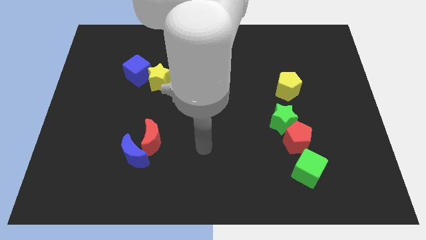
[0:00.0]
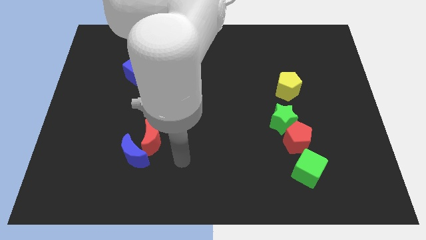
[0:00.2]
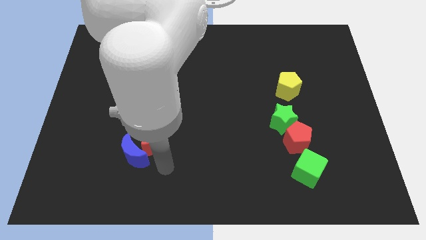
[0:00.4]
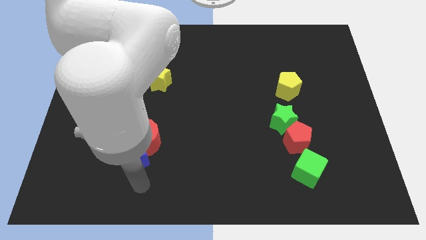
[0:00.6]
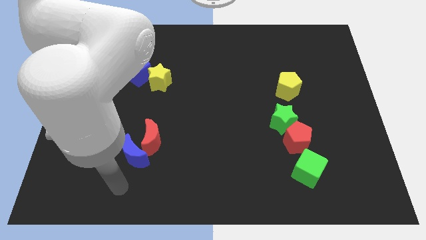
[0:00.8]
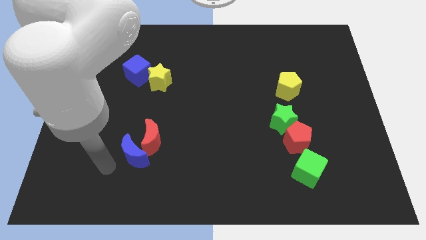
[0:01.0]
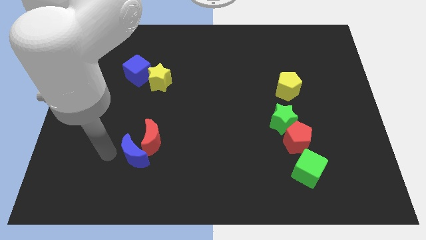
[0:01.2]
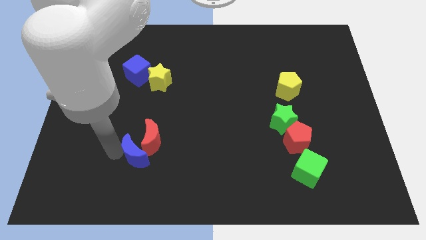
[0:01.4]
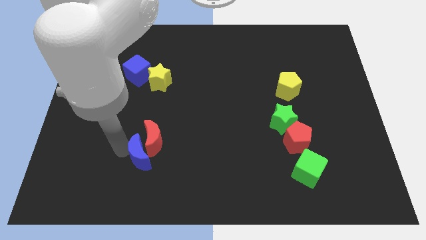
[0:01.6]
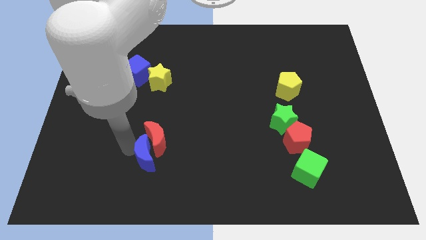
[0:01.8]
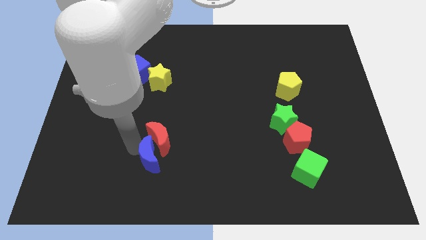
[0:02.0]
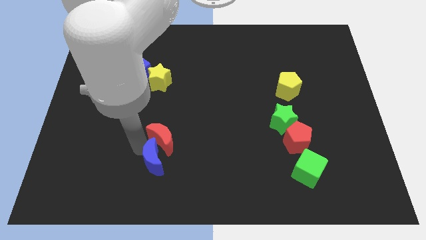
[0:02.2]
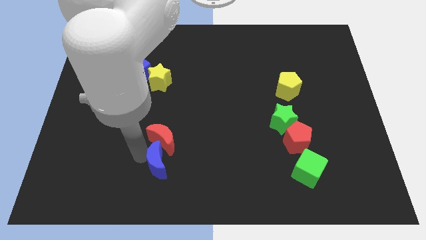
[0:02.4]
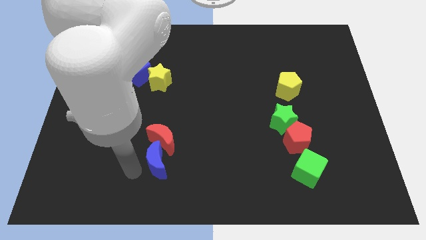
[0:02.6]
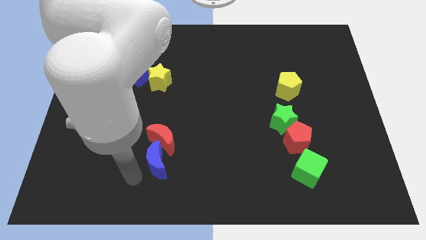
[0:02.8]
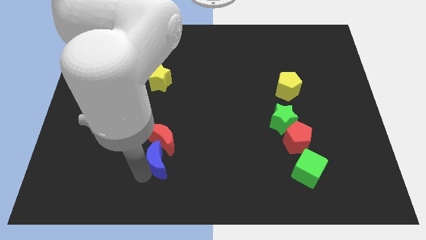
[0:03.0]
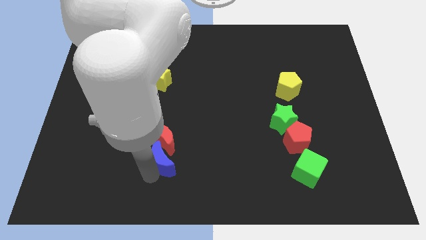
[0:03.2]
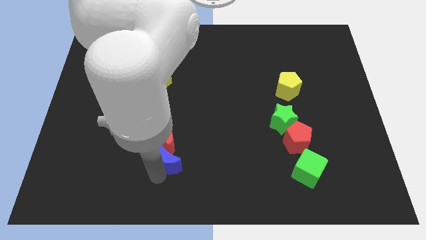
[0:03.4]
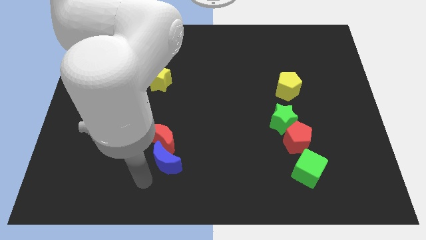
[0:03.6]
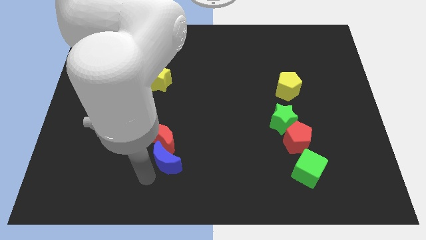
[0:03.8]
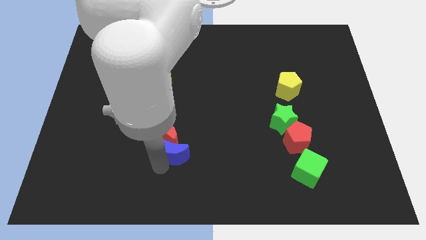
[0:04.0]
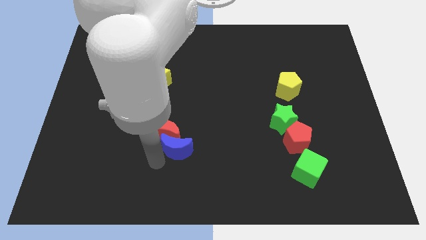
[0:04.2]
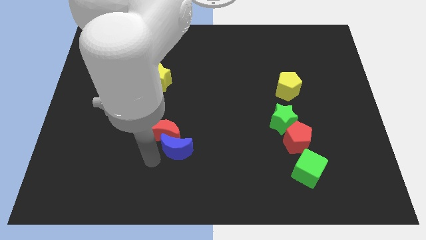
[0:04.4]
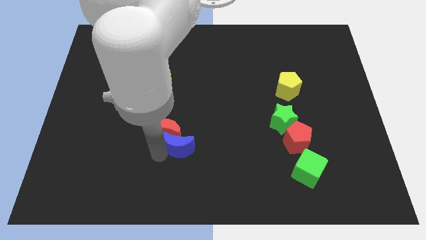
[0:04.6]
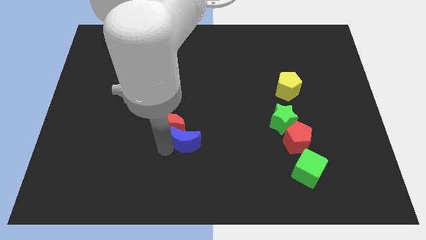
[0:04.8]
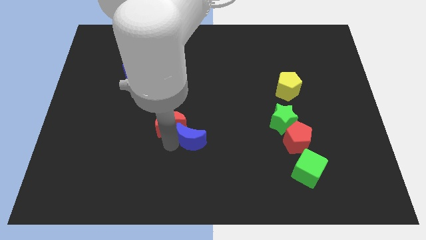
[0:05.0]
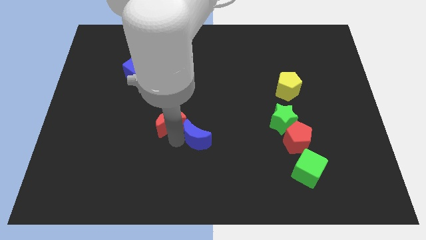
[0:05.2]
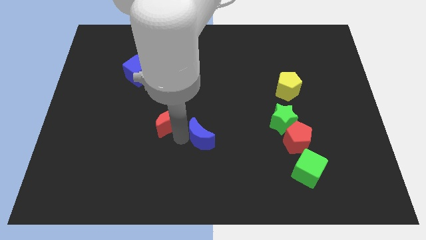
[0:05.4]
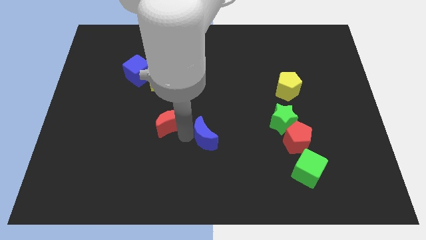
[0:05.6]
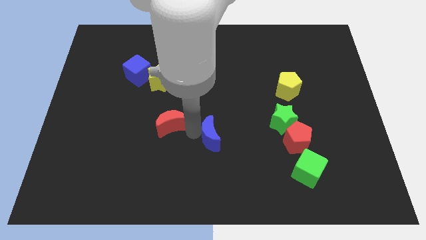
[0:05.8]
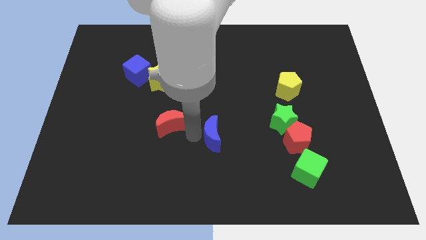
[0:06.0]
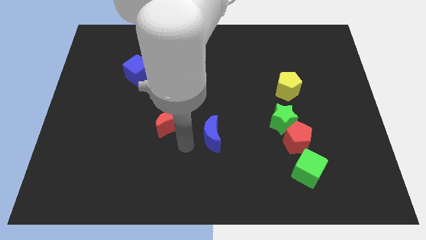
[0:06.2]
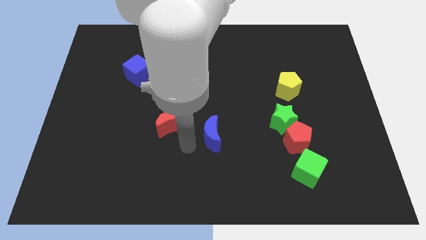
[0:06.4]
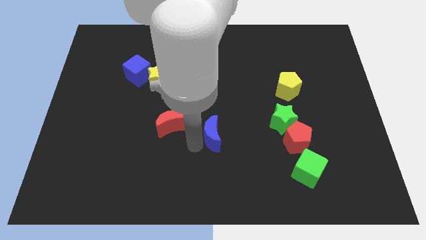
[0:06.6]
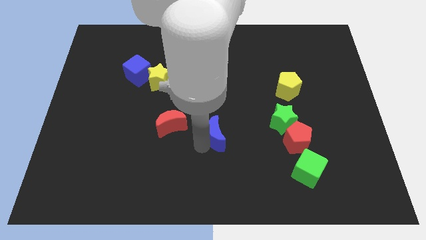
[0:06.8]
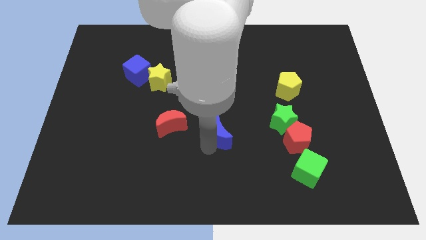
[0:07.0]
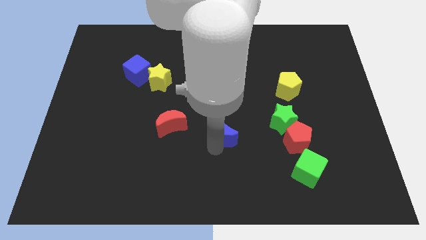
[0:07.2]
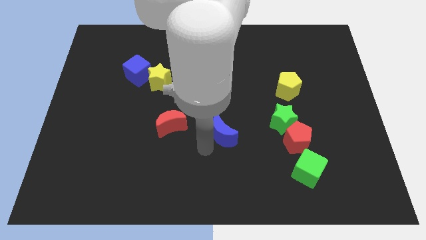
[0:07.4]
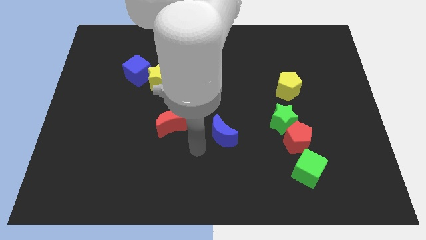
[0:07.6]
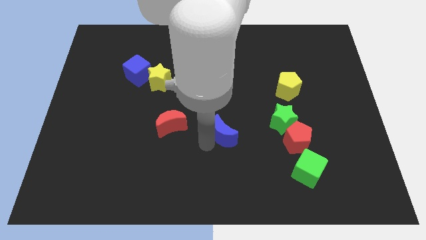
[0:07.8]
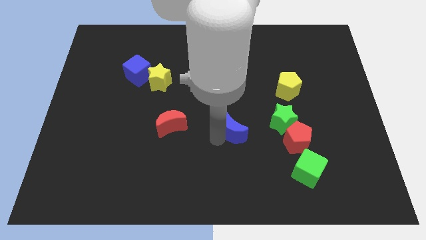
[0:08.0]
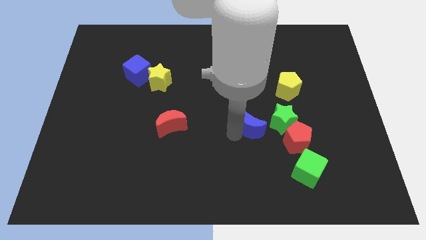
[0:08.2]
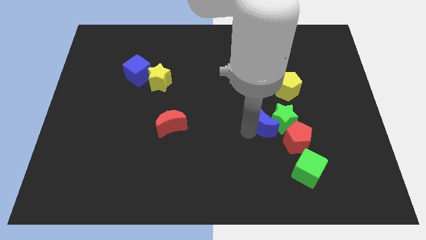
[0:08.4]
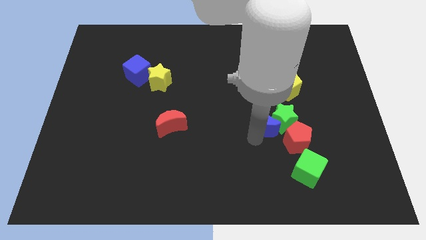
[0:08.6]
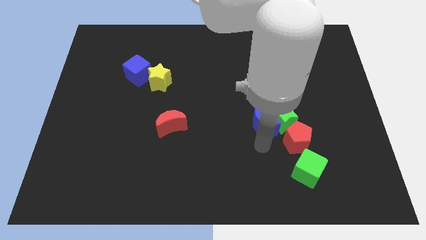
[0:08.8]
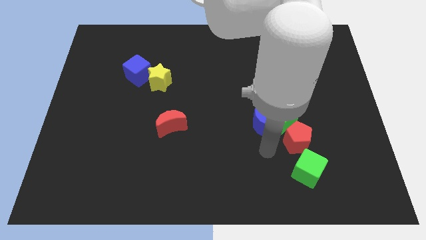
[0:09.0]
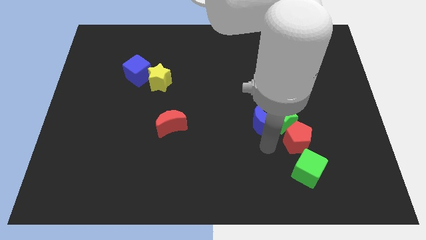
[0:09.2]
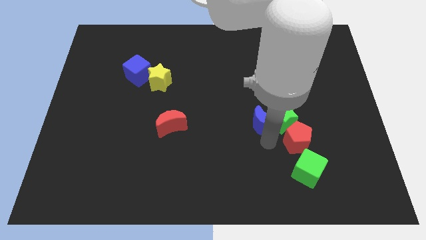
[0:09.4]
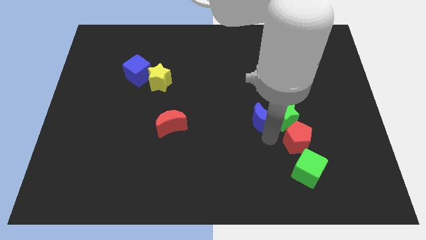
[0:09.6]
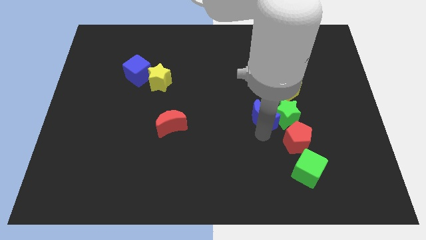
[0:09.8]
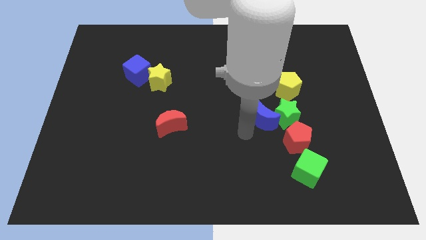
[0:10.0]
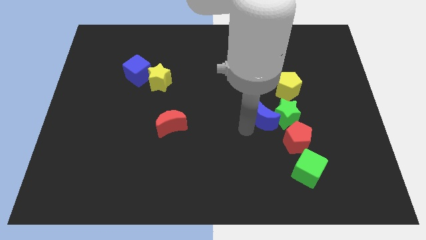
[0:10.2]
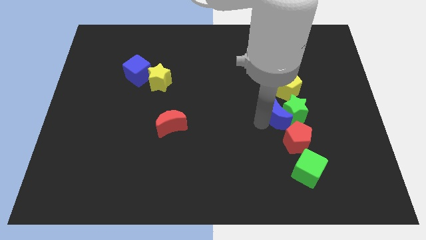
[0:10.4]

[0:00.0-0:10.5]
slide the blue moon to the top of the red pentagon

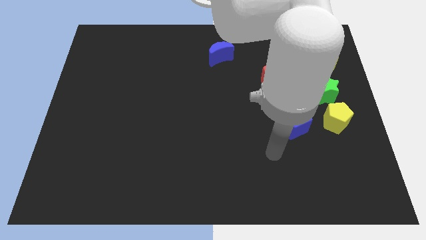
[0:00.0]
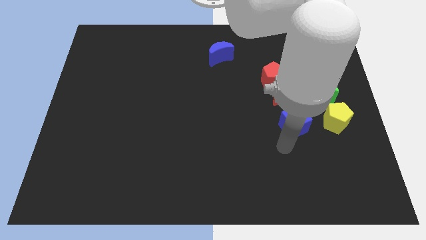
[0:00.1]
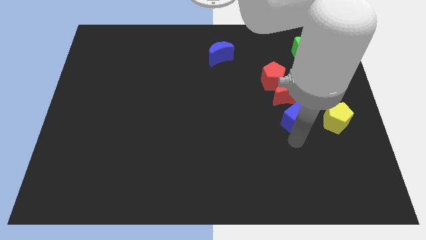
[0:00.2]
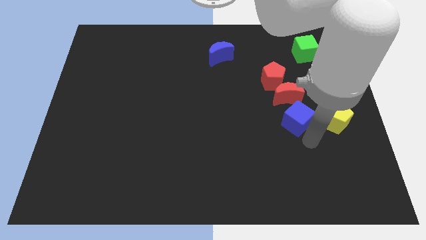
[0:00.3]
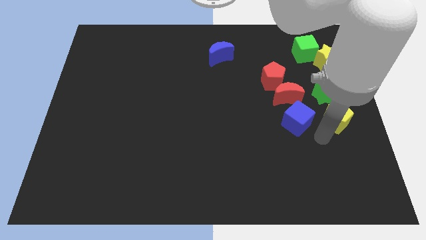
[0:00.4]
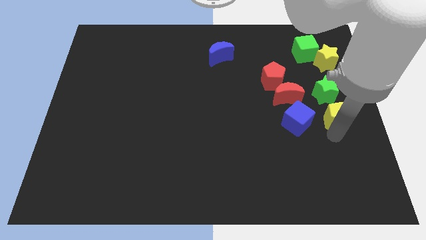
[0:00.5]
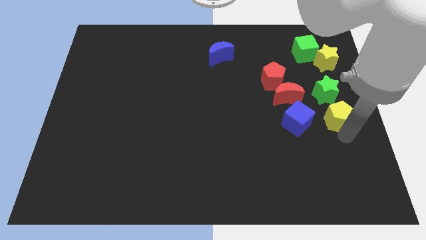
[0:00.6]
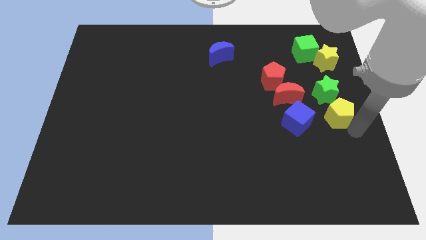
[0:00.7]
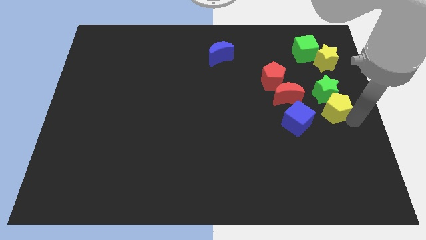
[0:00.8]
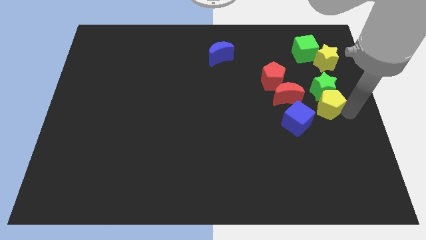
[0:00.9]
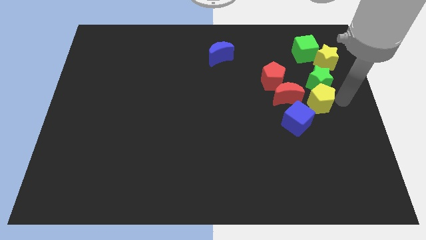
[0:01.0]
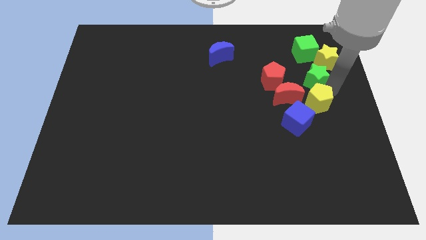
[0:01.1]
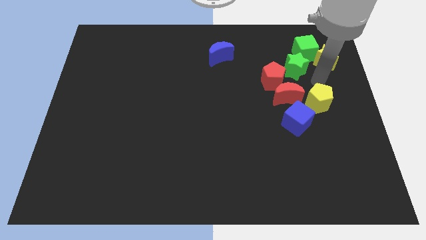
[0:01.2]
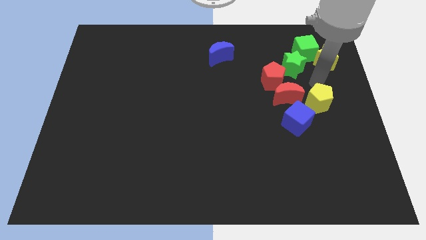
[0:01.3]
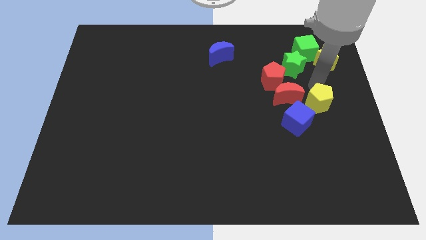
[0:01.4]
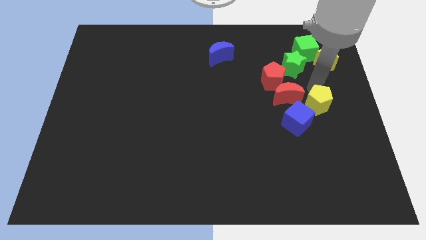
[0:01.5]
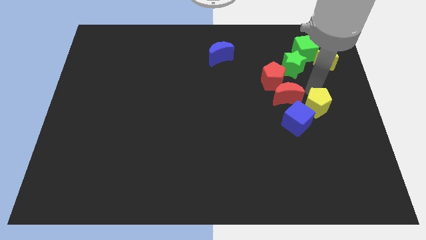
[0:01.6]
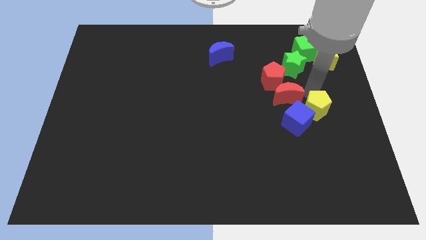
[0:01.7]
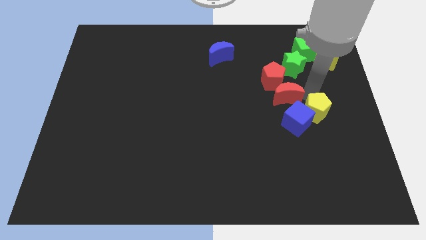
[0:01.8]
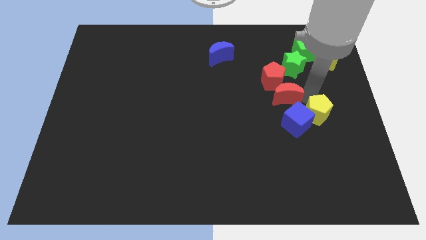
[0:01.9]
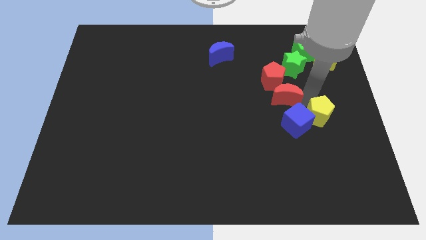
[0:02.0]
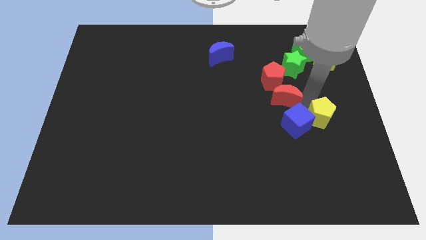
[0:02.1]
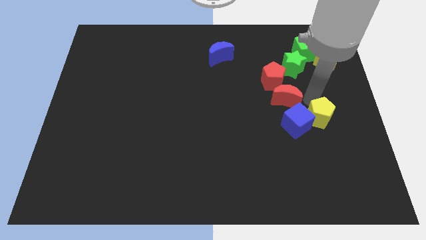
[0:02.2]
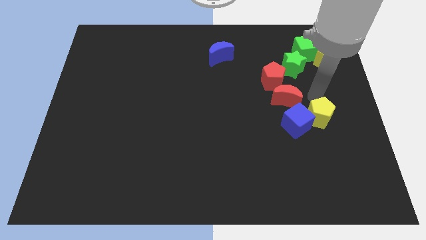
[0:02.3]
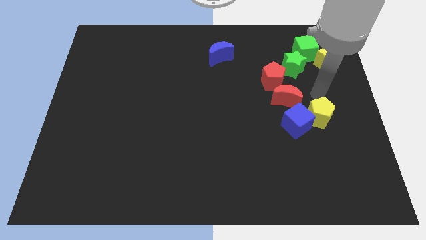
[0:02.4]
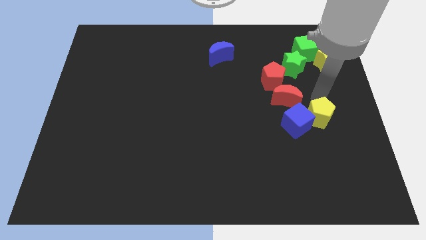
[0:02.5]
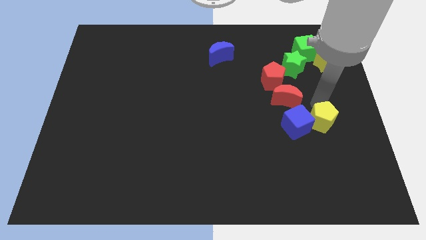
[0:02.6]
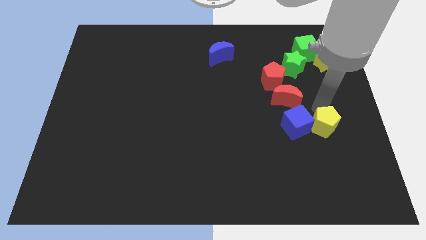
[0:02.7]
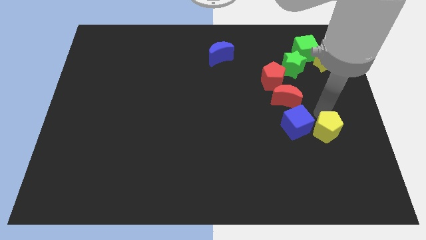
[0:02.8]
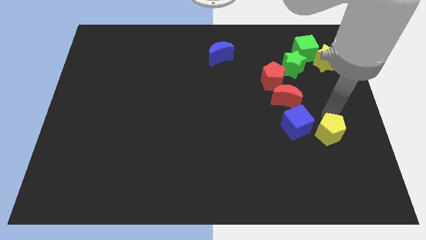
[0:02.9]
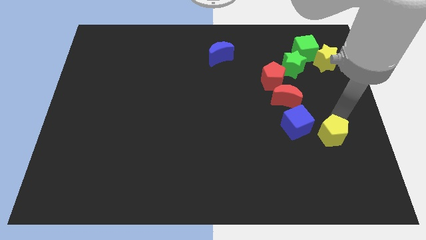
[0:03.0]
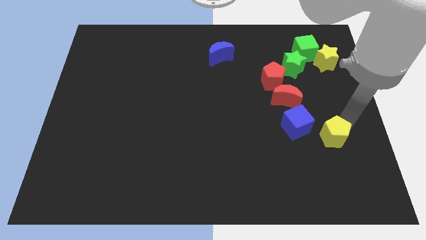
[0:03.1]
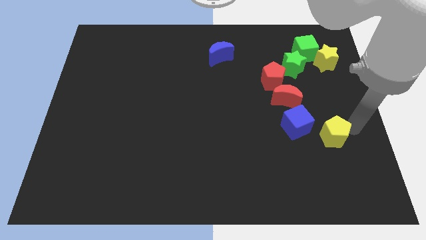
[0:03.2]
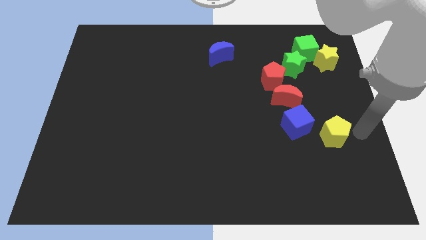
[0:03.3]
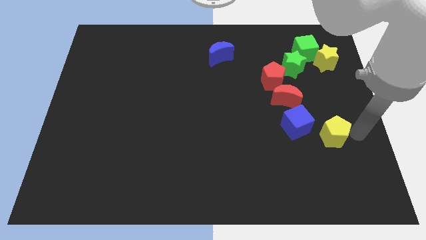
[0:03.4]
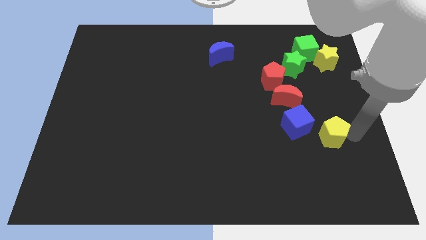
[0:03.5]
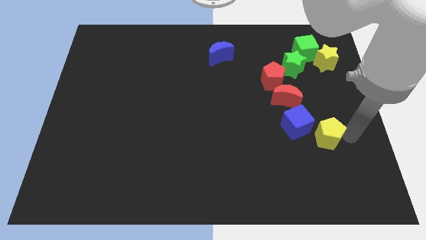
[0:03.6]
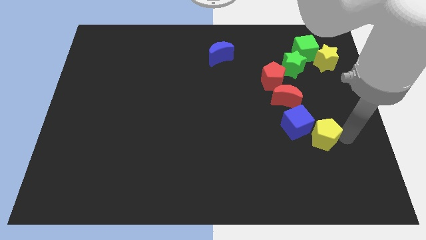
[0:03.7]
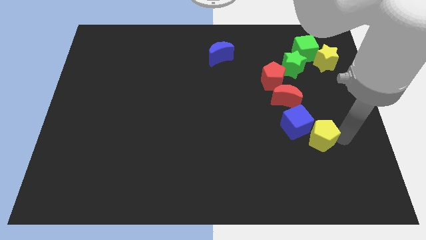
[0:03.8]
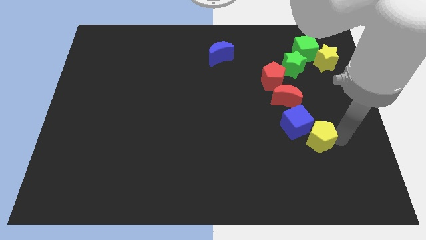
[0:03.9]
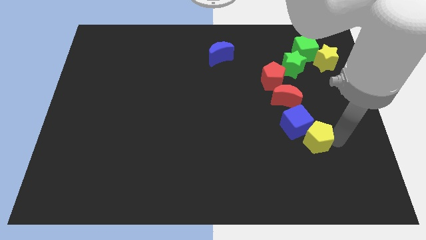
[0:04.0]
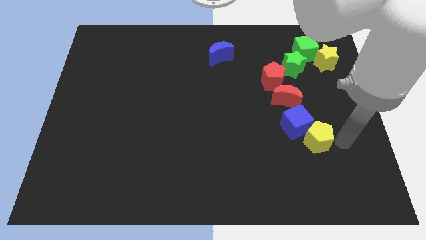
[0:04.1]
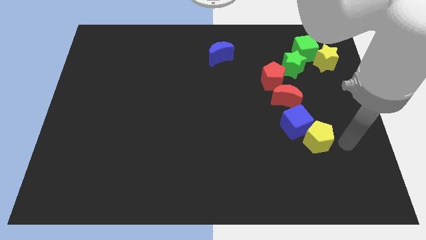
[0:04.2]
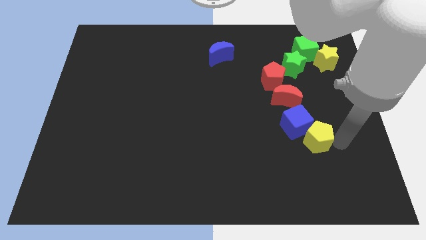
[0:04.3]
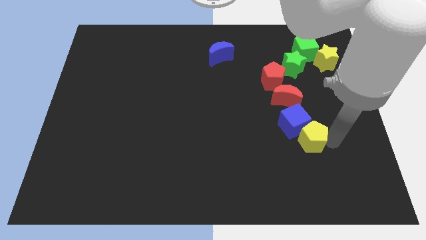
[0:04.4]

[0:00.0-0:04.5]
push the yellow pentagon to the bottom of the red moon
